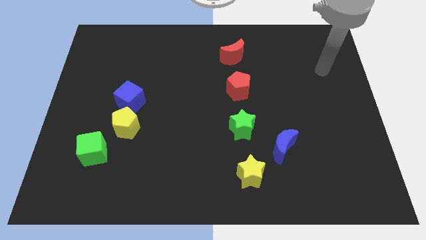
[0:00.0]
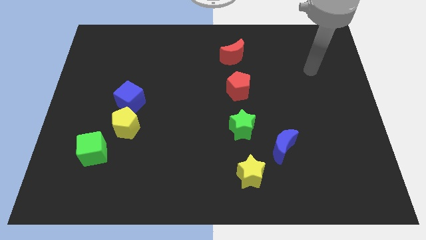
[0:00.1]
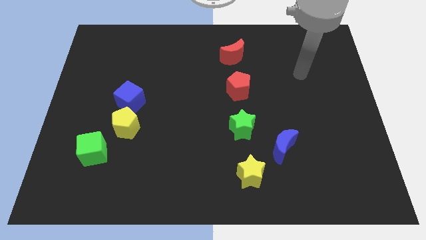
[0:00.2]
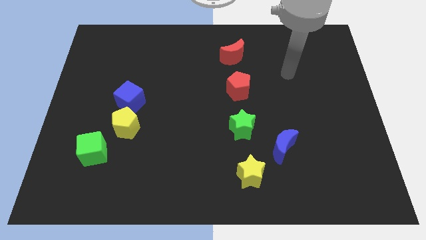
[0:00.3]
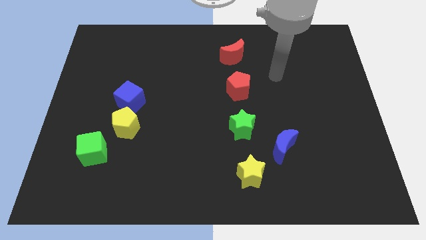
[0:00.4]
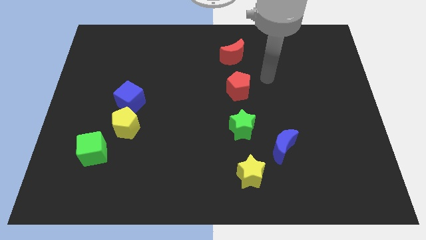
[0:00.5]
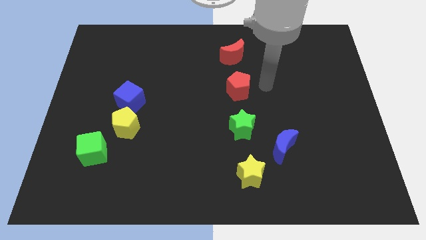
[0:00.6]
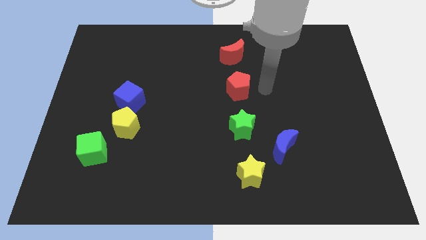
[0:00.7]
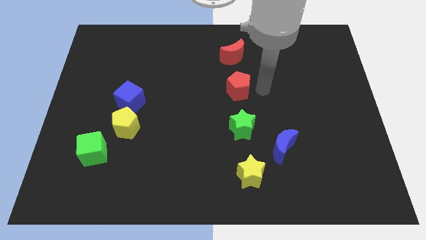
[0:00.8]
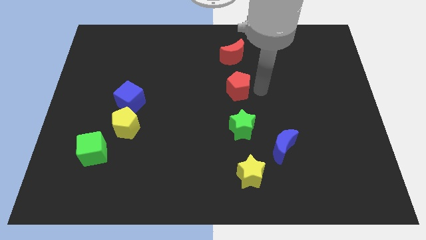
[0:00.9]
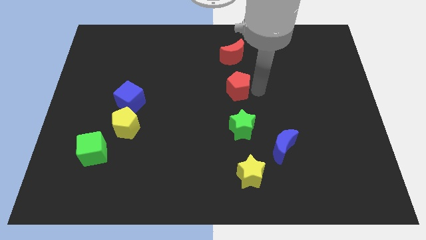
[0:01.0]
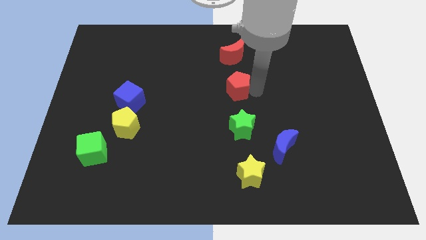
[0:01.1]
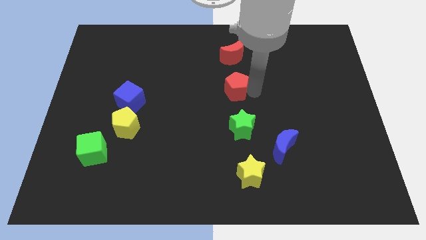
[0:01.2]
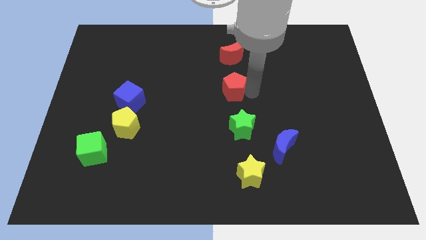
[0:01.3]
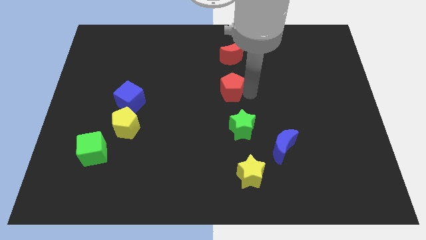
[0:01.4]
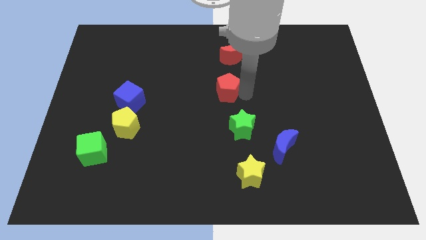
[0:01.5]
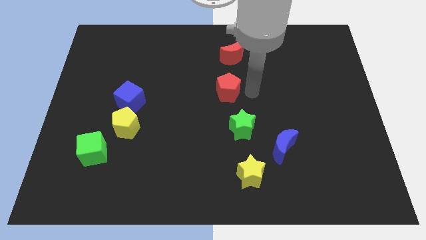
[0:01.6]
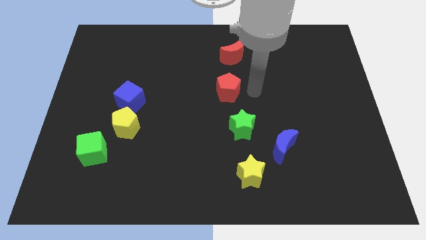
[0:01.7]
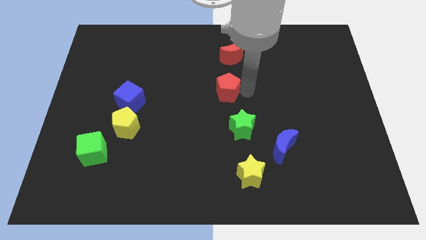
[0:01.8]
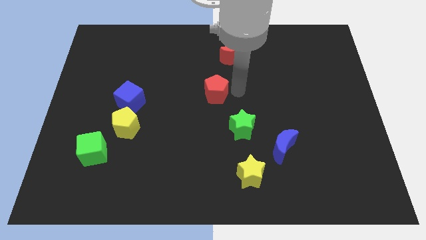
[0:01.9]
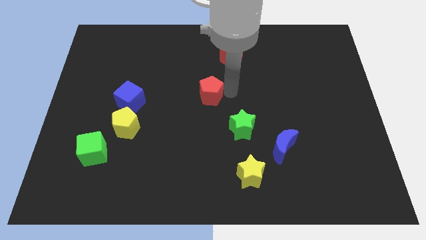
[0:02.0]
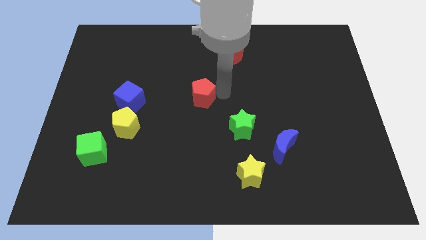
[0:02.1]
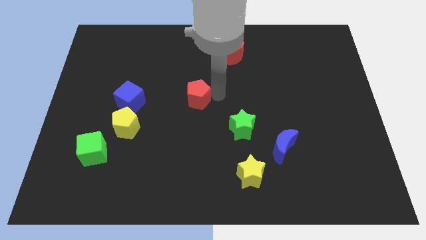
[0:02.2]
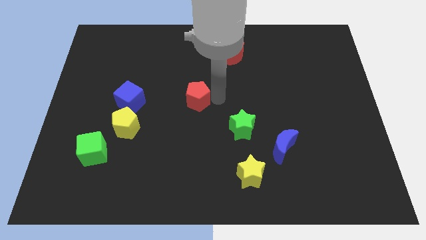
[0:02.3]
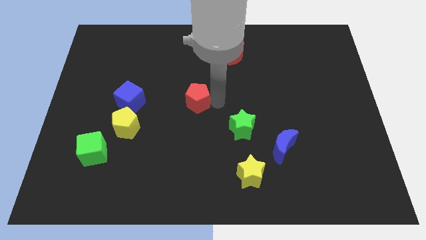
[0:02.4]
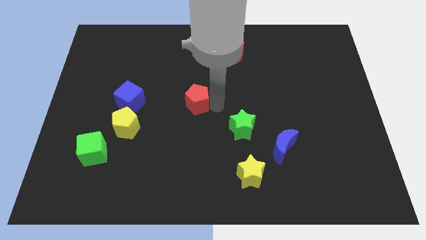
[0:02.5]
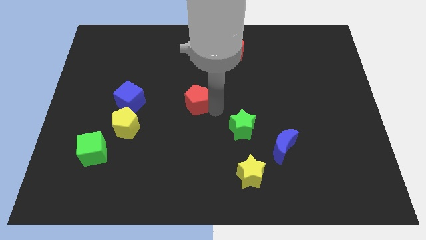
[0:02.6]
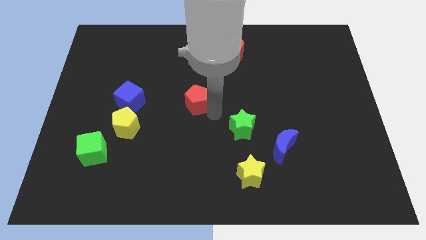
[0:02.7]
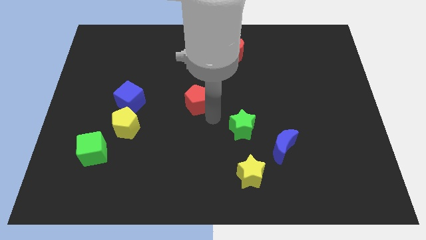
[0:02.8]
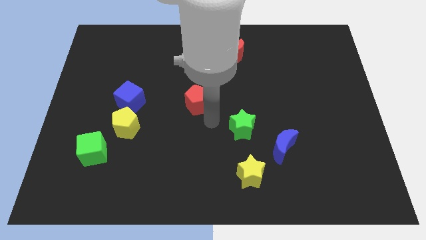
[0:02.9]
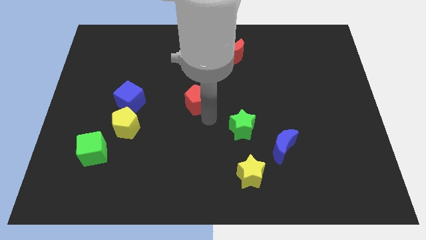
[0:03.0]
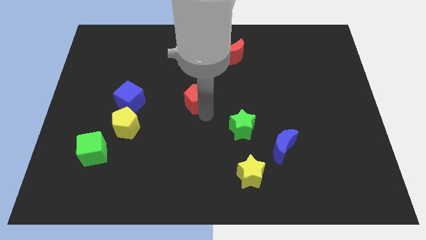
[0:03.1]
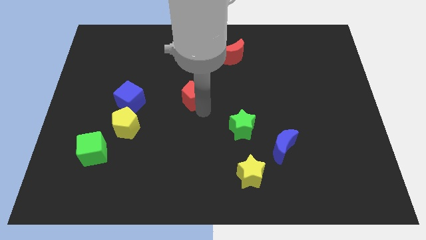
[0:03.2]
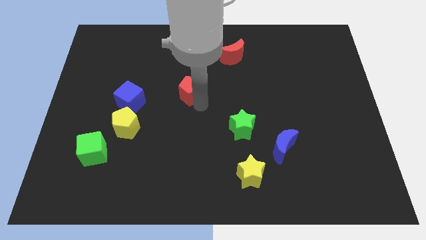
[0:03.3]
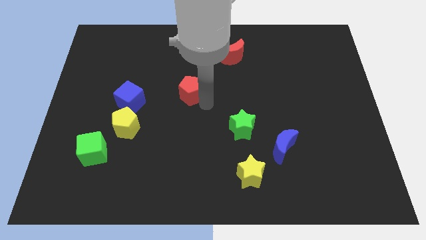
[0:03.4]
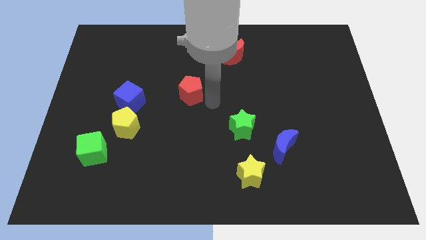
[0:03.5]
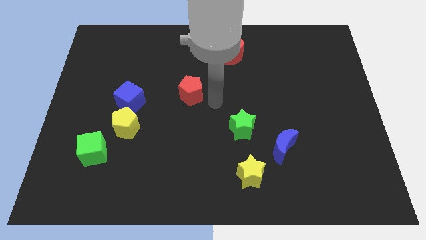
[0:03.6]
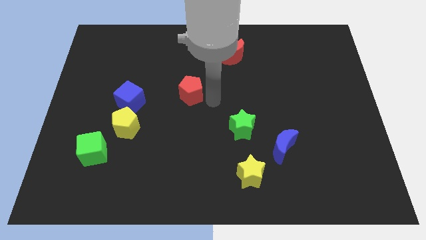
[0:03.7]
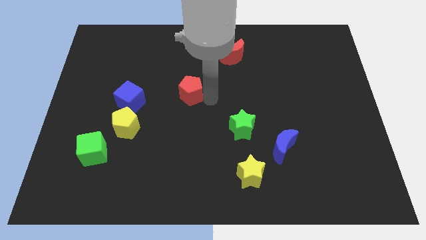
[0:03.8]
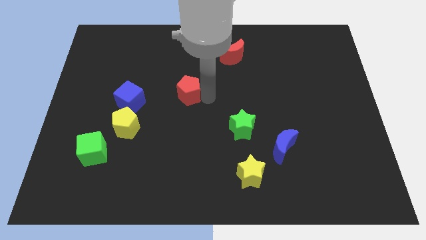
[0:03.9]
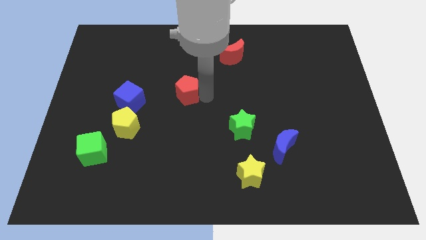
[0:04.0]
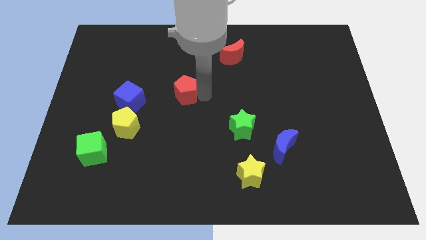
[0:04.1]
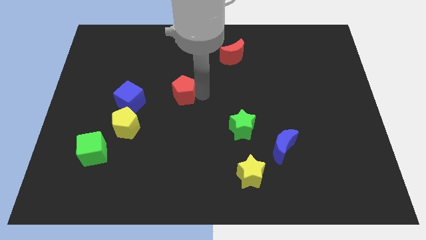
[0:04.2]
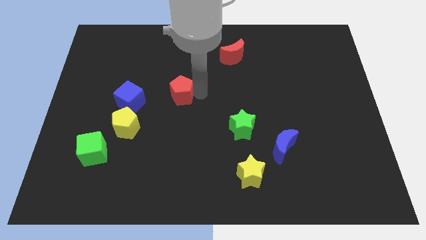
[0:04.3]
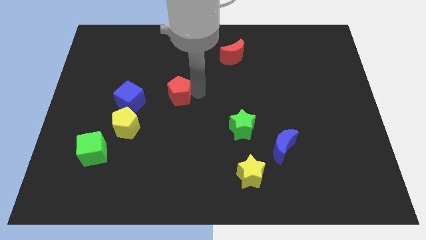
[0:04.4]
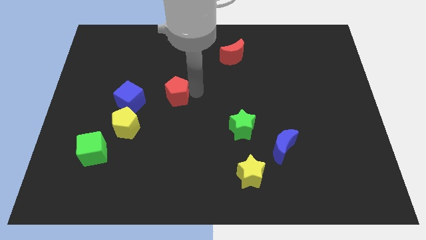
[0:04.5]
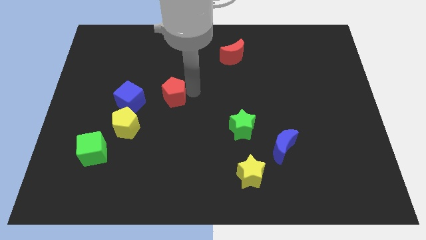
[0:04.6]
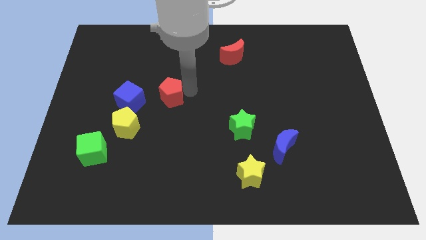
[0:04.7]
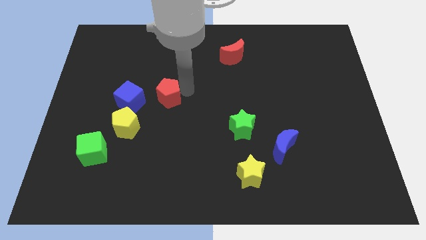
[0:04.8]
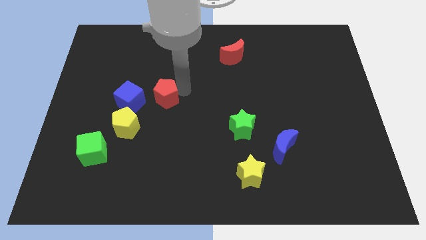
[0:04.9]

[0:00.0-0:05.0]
put the red pentagon to the top right of the blue cube

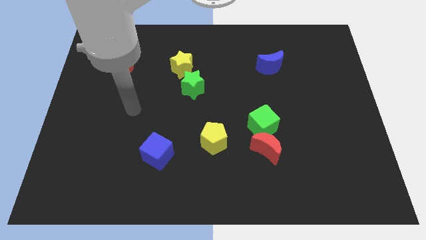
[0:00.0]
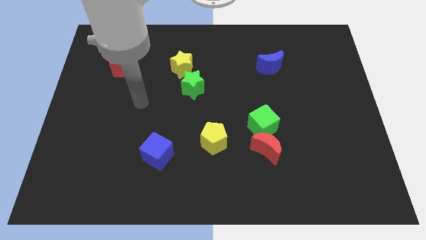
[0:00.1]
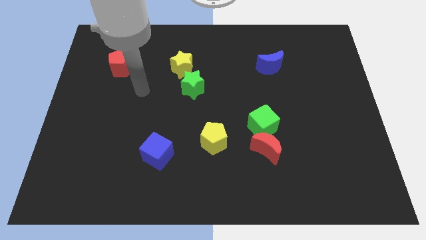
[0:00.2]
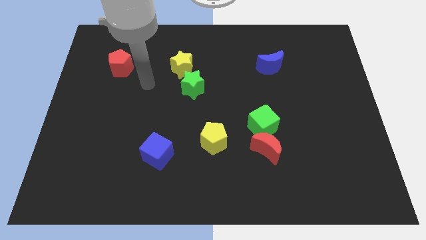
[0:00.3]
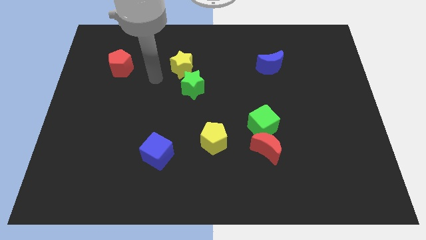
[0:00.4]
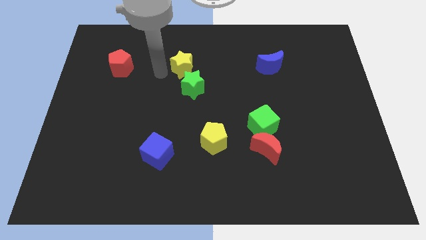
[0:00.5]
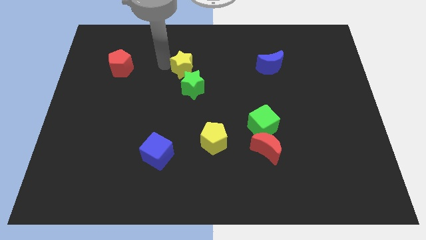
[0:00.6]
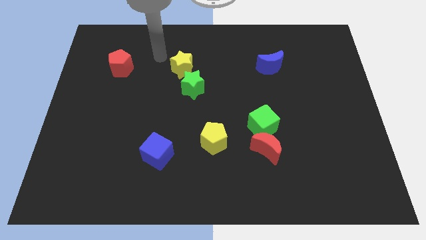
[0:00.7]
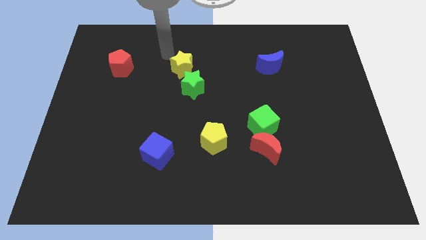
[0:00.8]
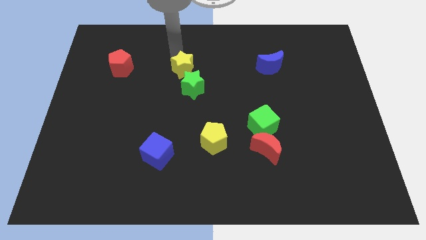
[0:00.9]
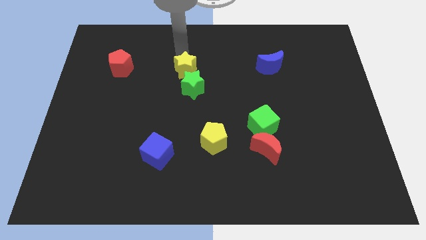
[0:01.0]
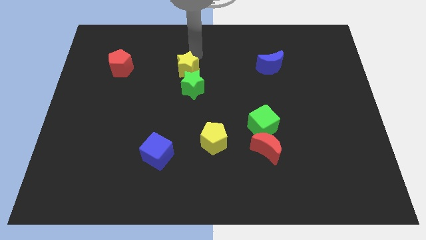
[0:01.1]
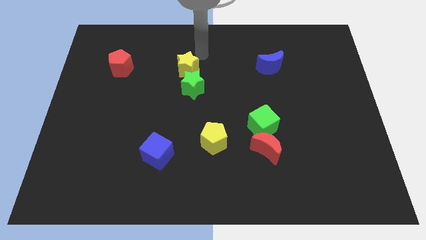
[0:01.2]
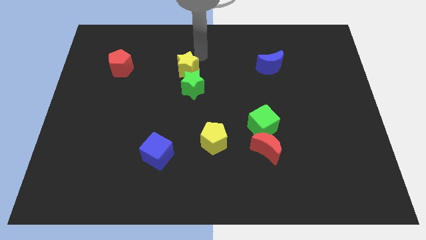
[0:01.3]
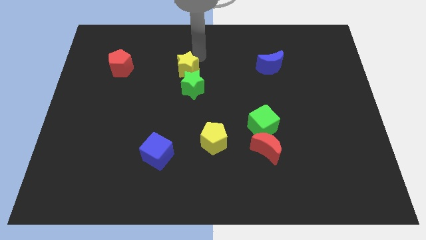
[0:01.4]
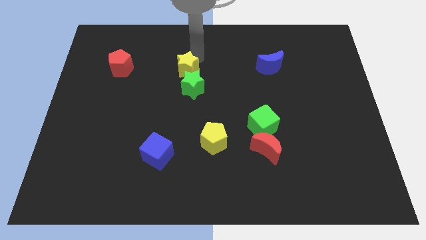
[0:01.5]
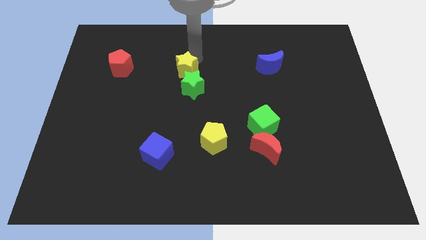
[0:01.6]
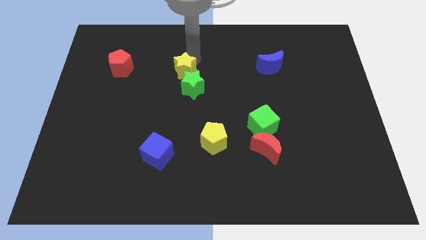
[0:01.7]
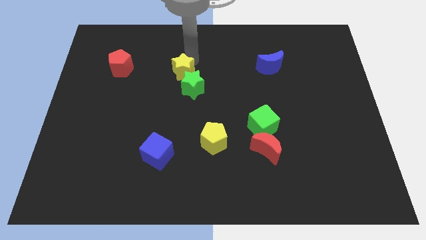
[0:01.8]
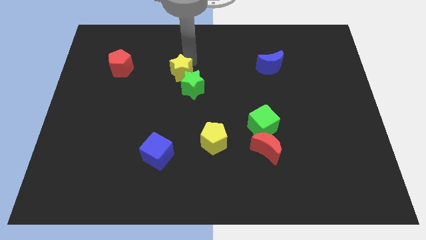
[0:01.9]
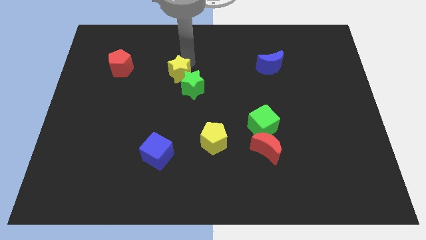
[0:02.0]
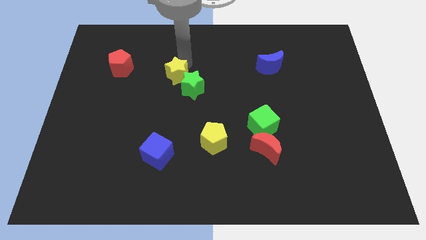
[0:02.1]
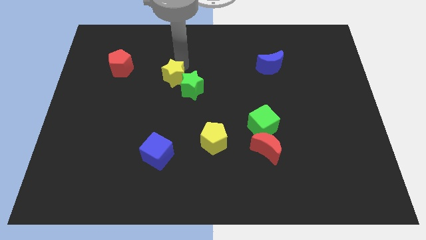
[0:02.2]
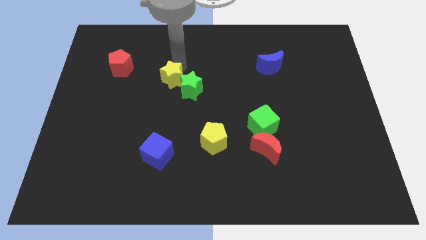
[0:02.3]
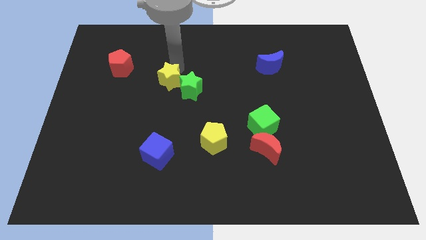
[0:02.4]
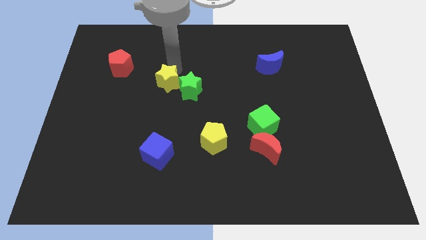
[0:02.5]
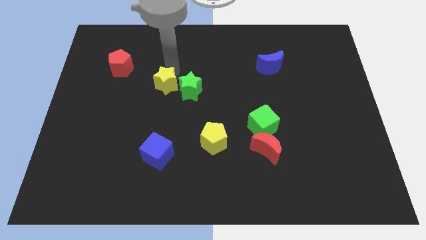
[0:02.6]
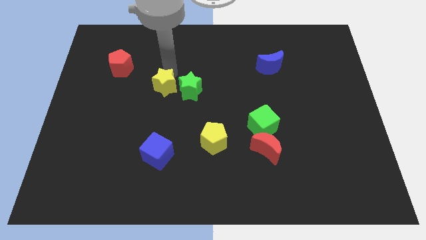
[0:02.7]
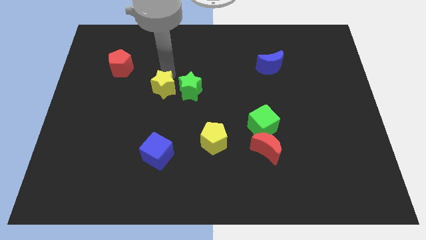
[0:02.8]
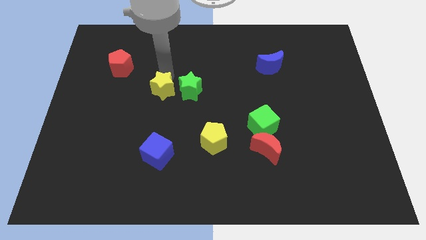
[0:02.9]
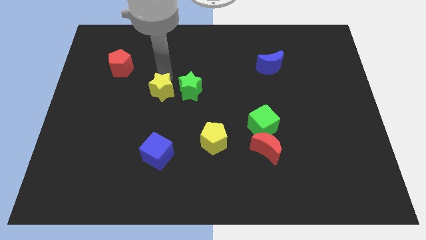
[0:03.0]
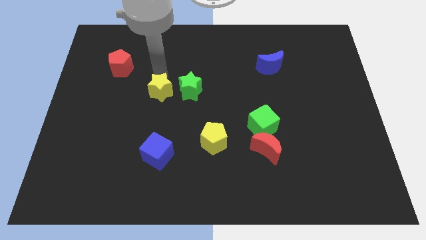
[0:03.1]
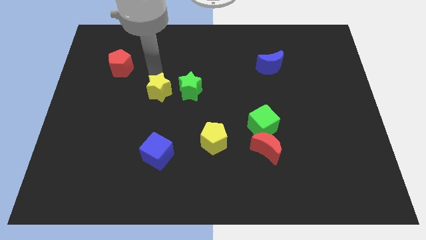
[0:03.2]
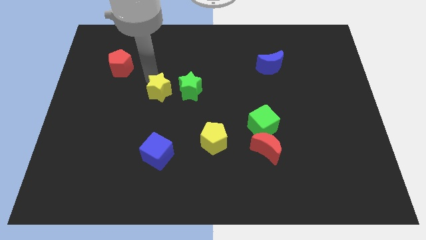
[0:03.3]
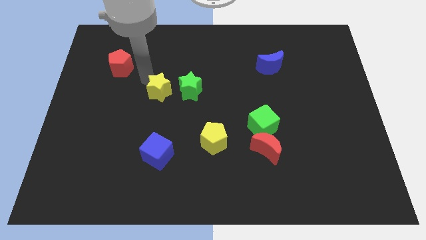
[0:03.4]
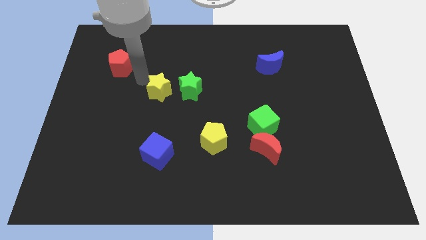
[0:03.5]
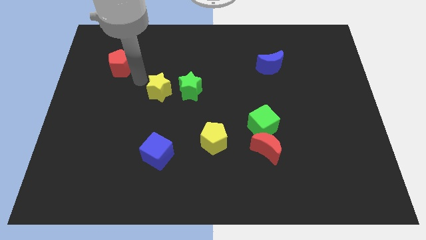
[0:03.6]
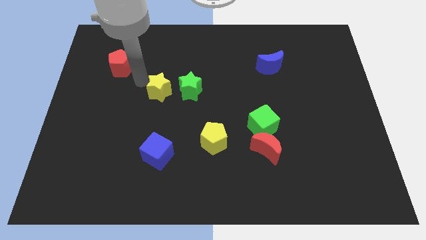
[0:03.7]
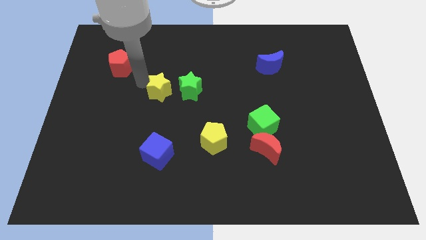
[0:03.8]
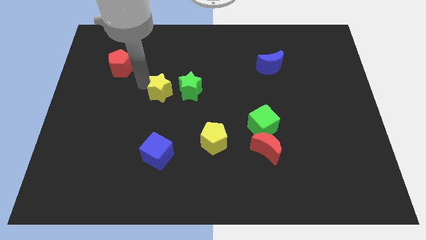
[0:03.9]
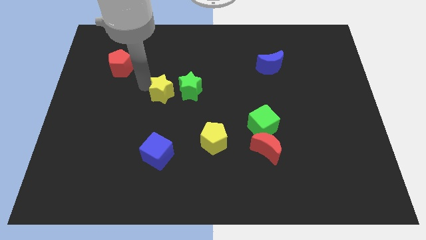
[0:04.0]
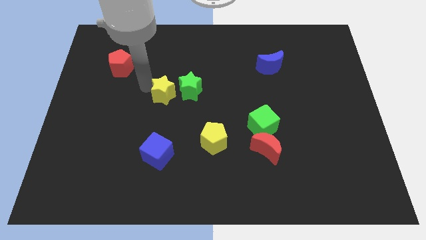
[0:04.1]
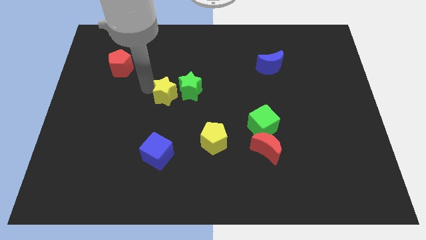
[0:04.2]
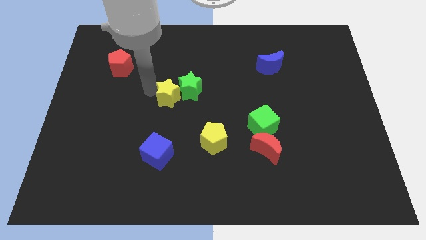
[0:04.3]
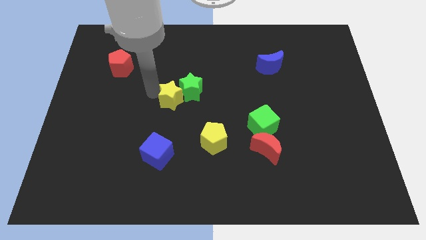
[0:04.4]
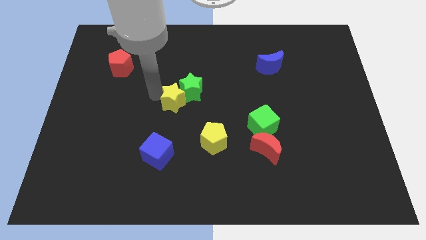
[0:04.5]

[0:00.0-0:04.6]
push the yellow star to the bottom of the green star
